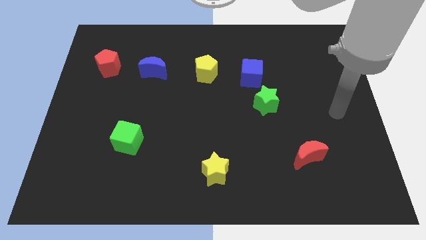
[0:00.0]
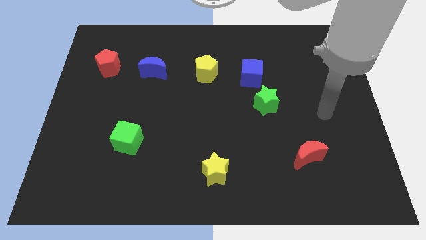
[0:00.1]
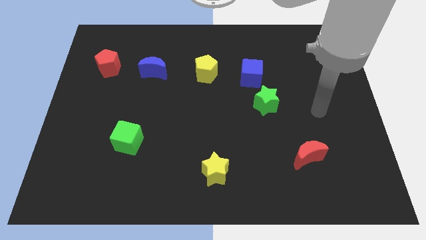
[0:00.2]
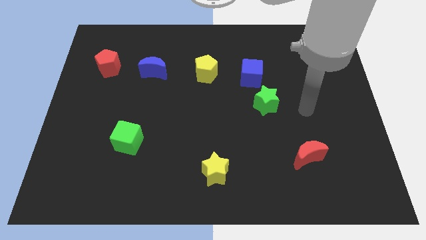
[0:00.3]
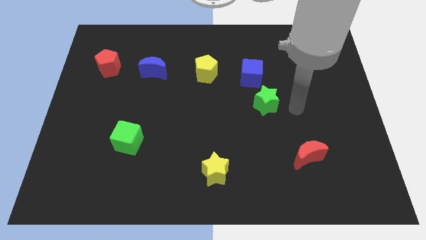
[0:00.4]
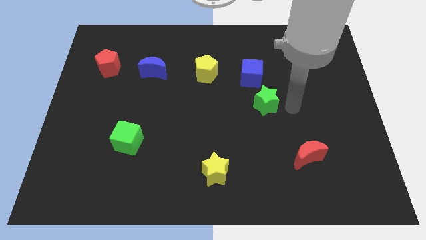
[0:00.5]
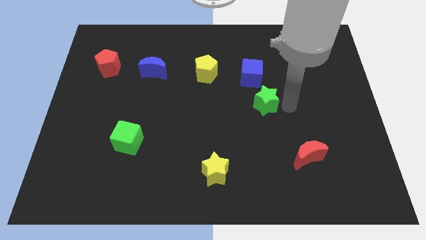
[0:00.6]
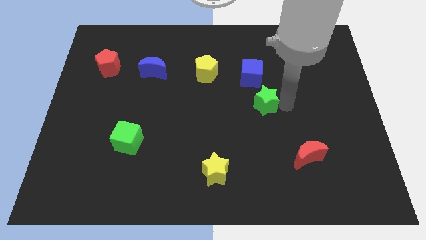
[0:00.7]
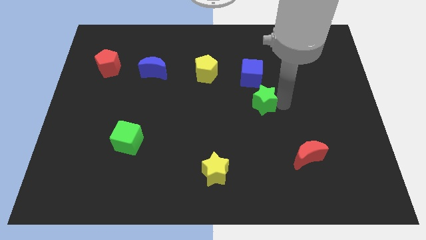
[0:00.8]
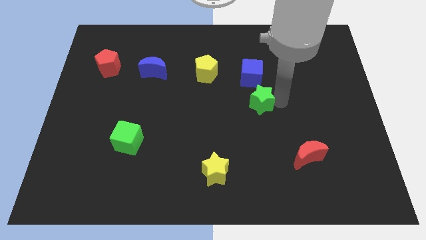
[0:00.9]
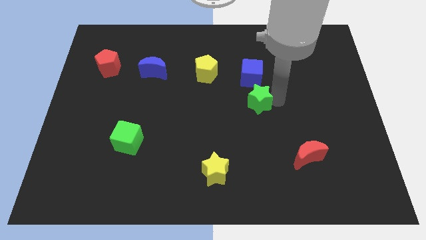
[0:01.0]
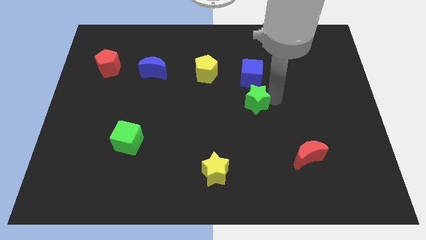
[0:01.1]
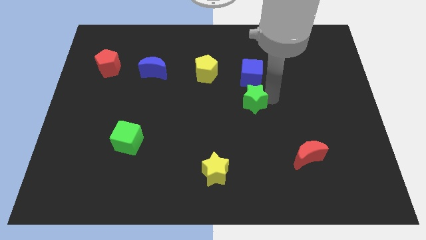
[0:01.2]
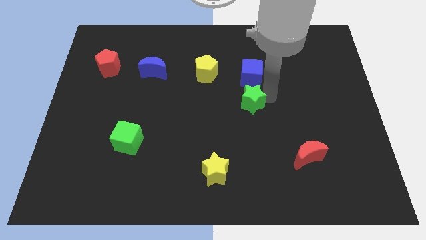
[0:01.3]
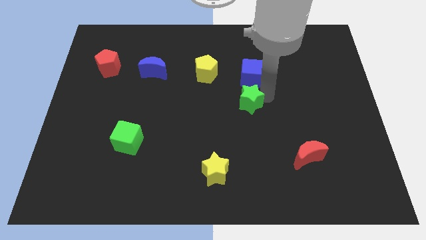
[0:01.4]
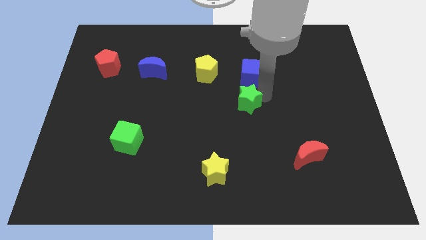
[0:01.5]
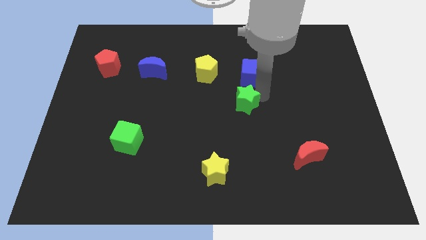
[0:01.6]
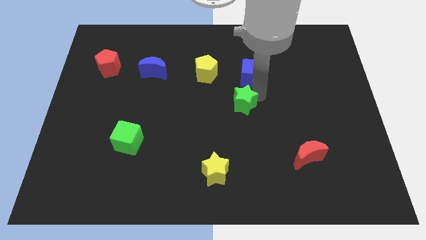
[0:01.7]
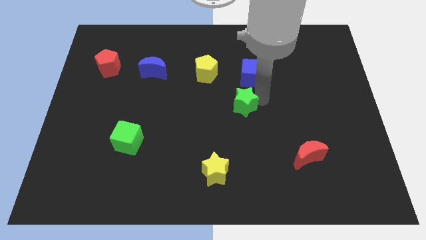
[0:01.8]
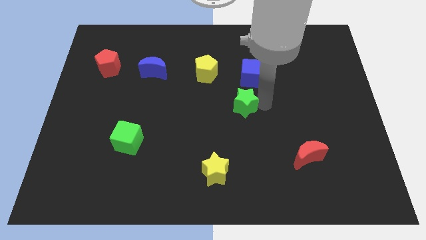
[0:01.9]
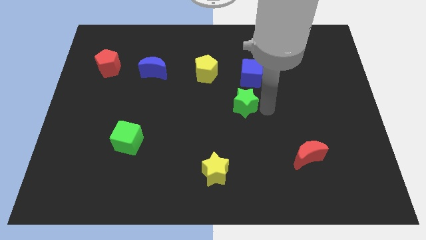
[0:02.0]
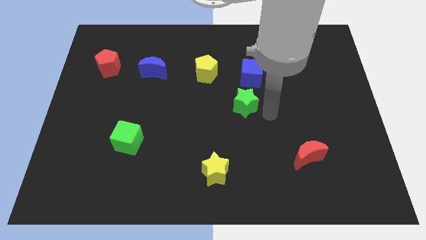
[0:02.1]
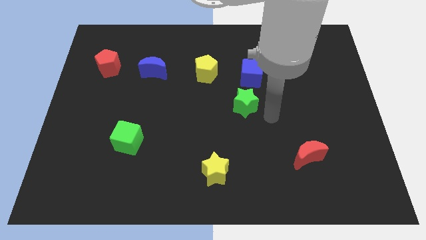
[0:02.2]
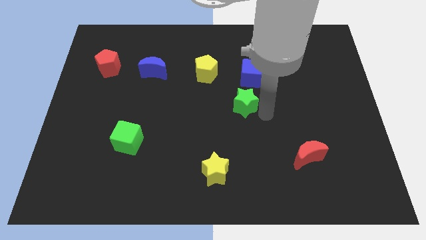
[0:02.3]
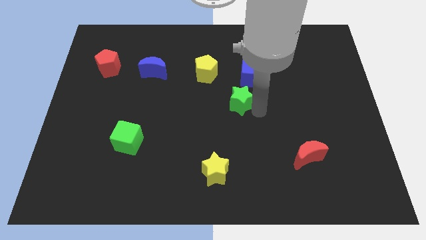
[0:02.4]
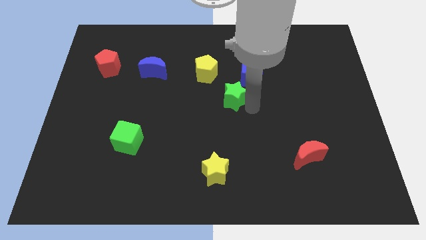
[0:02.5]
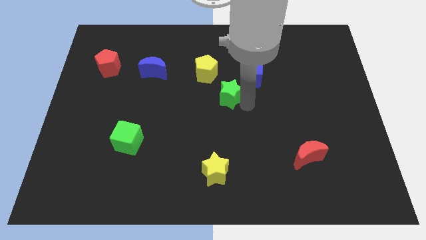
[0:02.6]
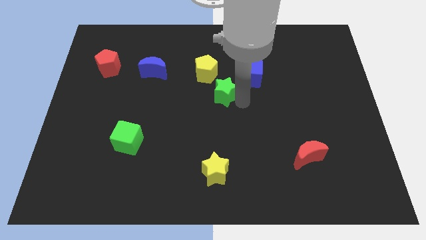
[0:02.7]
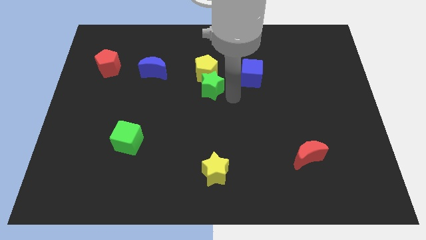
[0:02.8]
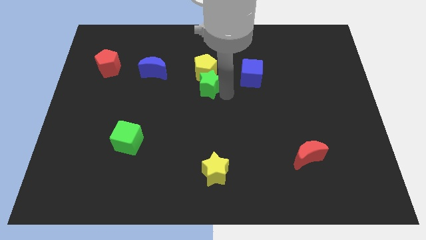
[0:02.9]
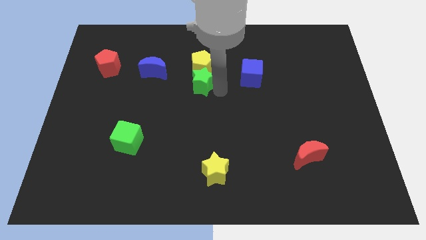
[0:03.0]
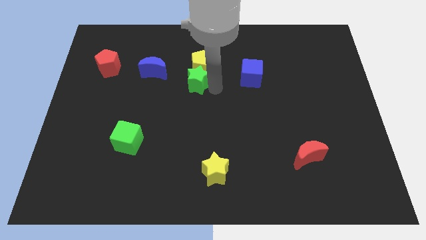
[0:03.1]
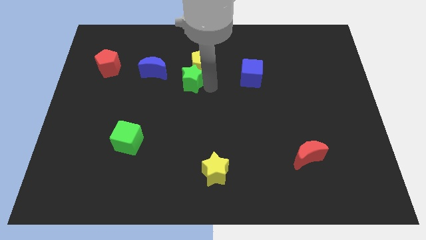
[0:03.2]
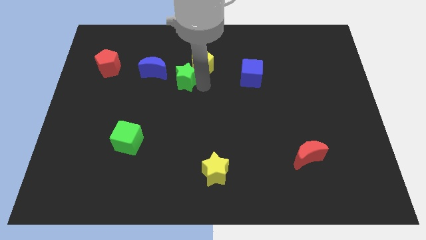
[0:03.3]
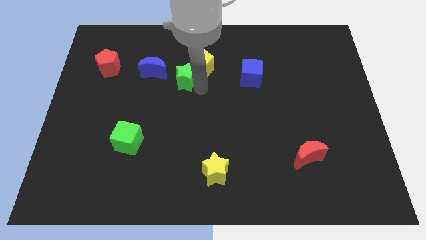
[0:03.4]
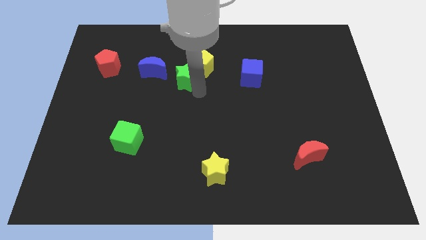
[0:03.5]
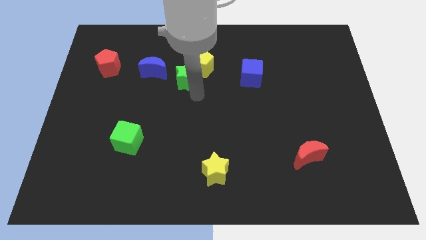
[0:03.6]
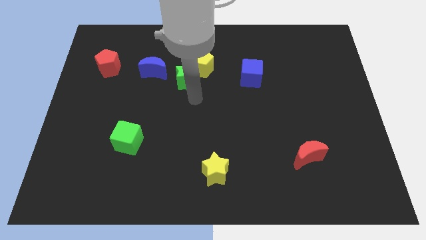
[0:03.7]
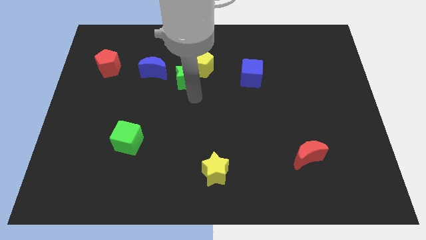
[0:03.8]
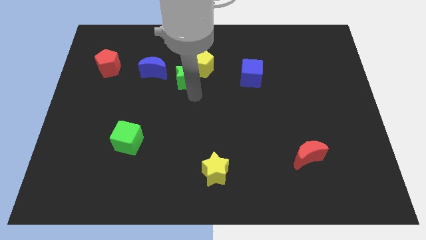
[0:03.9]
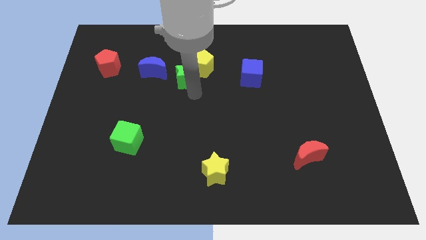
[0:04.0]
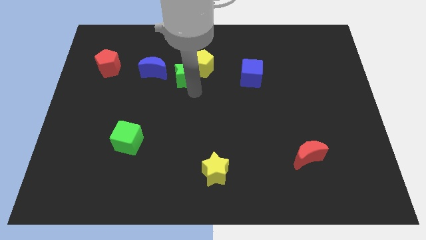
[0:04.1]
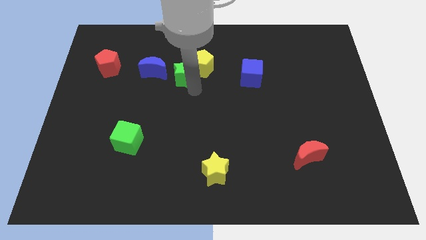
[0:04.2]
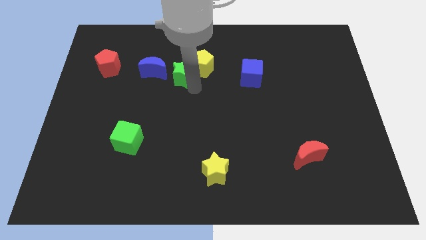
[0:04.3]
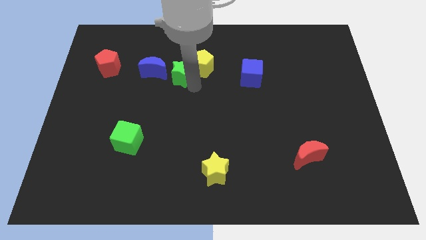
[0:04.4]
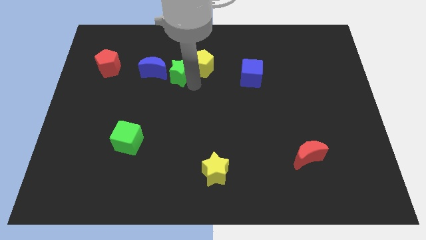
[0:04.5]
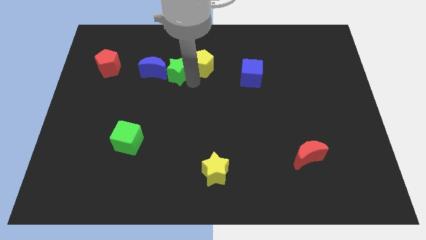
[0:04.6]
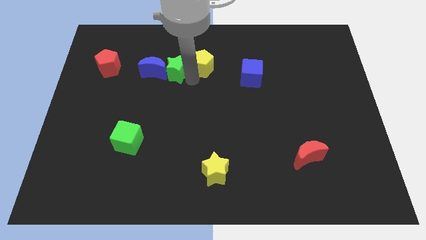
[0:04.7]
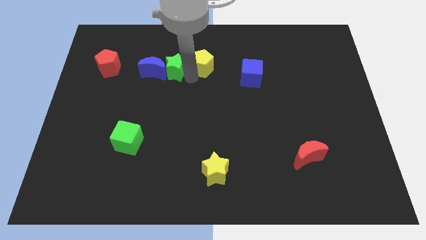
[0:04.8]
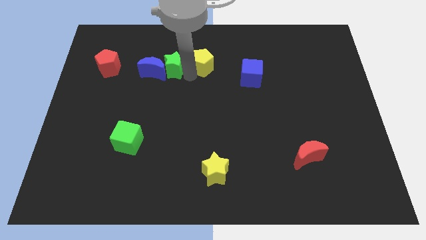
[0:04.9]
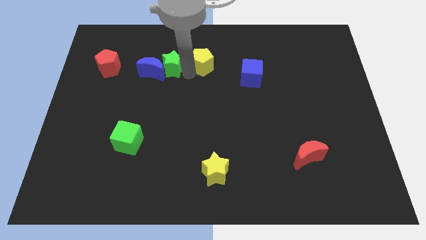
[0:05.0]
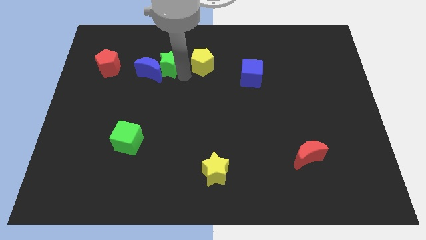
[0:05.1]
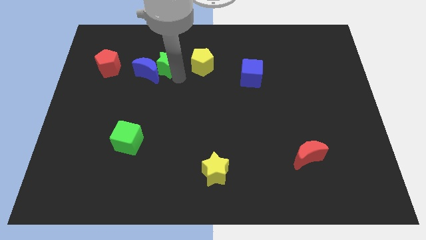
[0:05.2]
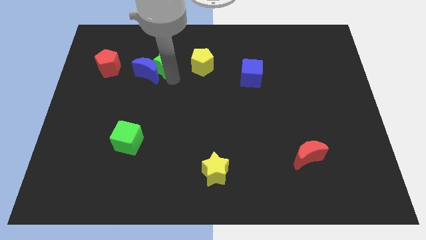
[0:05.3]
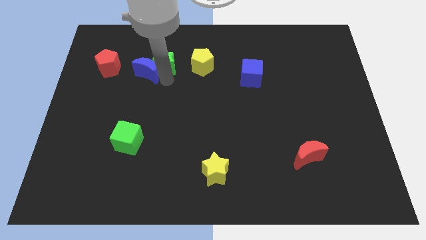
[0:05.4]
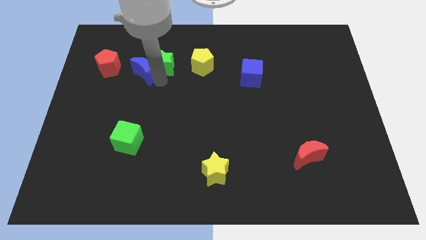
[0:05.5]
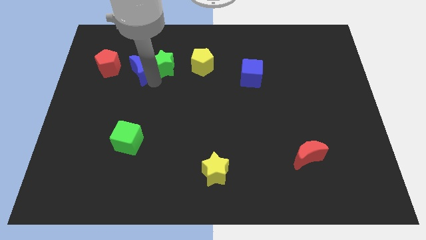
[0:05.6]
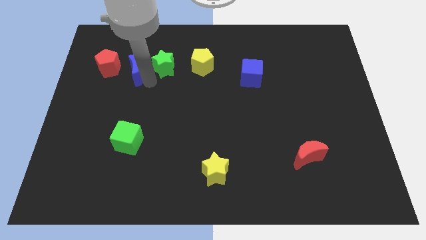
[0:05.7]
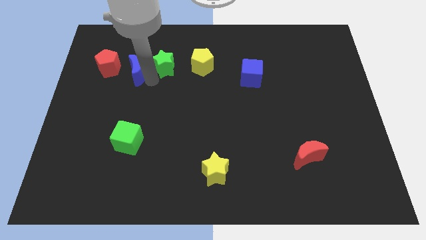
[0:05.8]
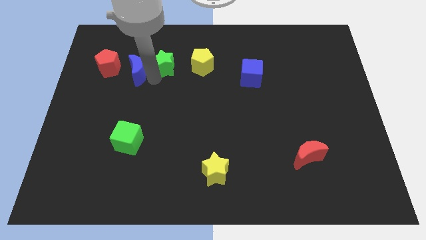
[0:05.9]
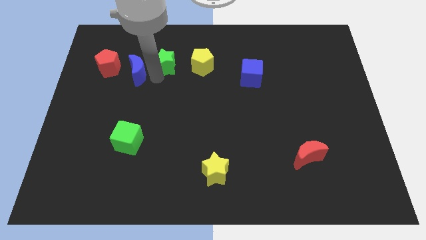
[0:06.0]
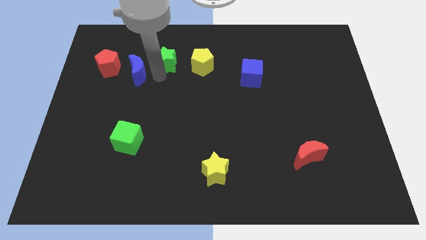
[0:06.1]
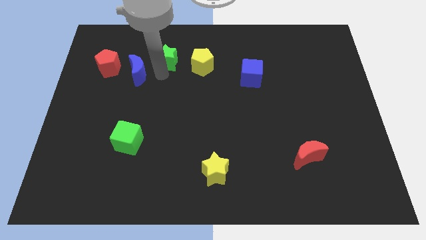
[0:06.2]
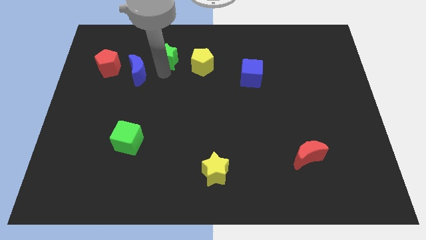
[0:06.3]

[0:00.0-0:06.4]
push the green star diagonally up and to the left of the yellow pentagon

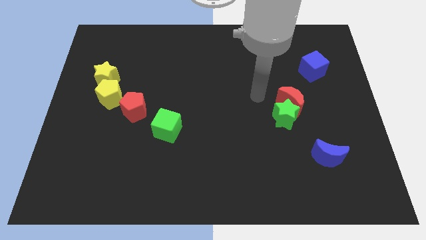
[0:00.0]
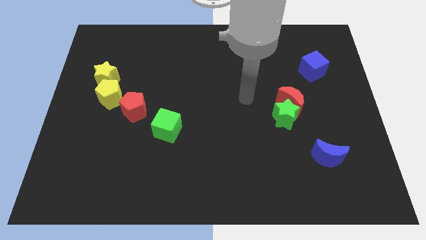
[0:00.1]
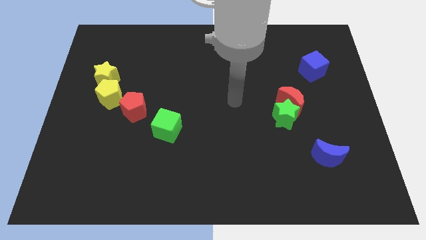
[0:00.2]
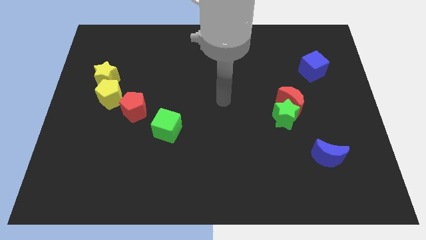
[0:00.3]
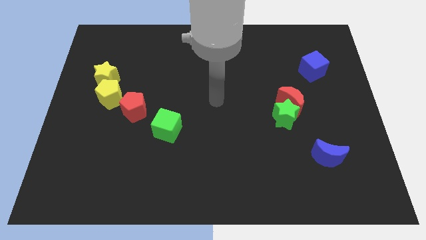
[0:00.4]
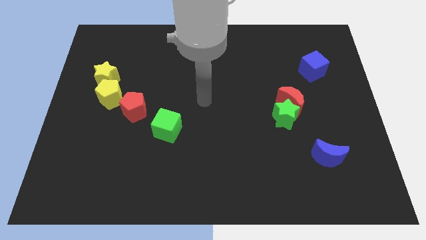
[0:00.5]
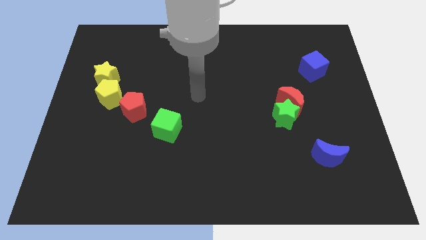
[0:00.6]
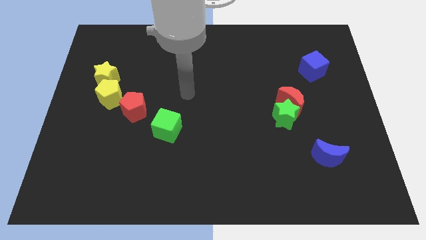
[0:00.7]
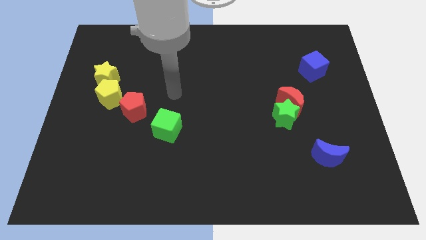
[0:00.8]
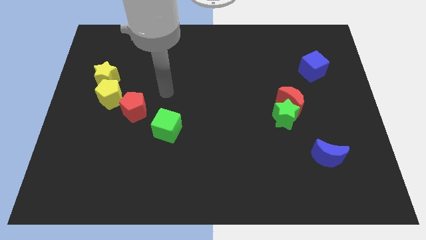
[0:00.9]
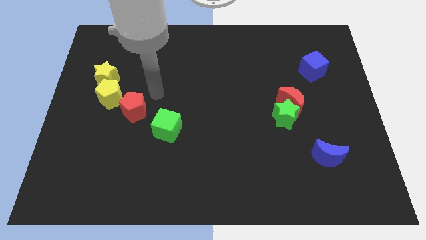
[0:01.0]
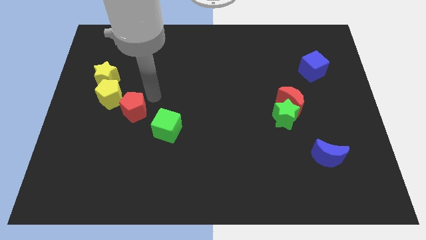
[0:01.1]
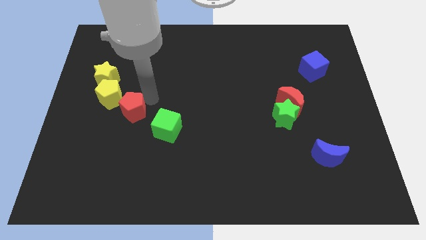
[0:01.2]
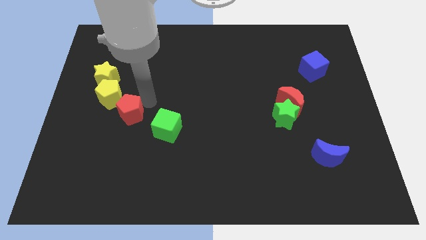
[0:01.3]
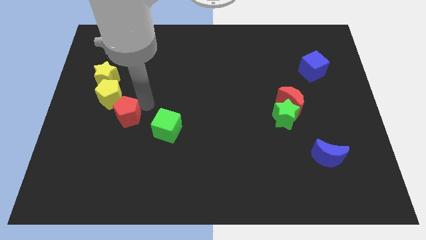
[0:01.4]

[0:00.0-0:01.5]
move the red pentagon to the bottom of the yellow pentagon
